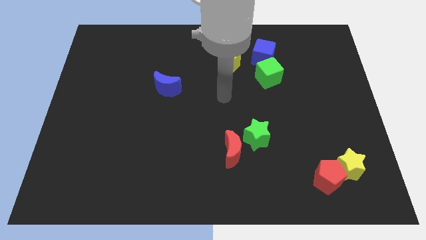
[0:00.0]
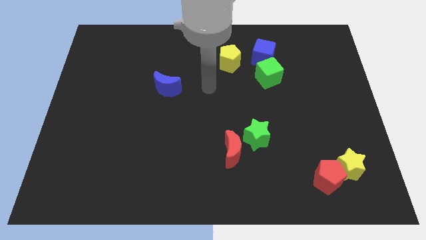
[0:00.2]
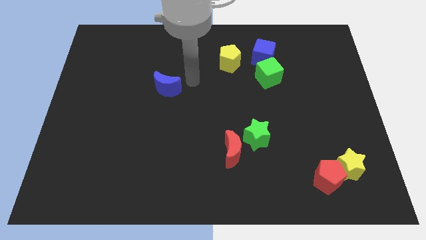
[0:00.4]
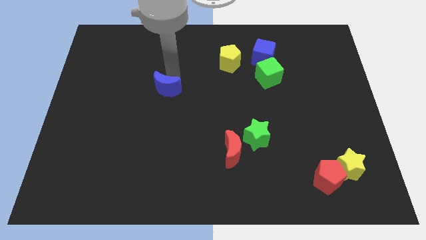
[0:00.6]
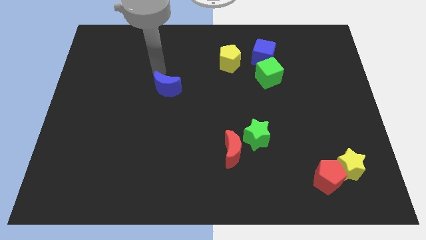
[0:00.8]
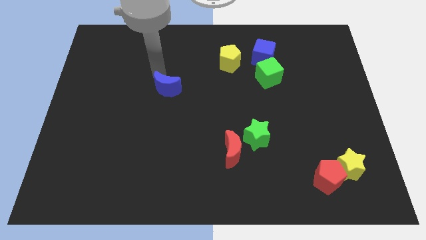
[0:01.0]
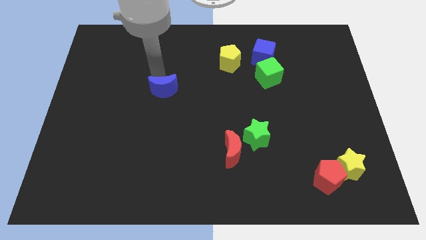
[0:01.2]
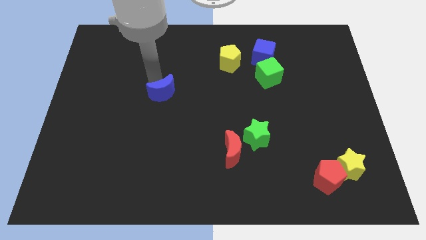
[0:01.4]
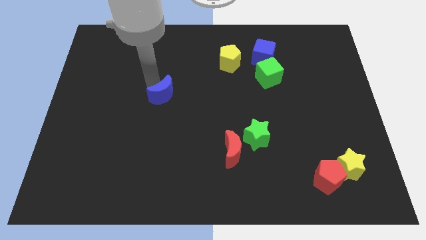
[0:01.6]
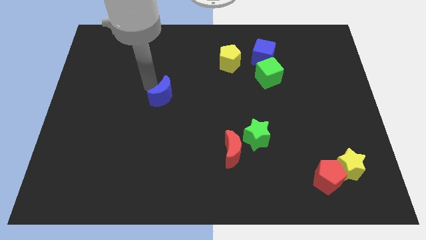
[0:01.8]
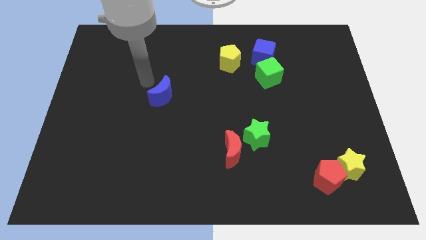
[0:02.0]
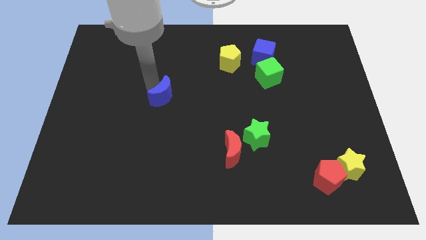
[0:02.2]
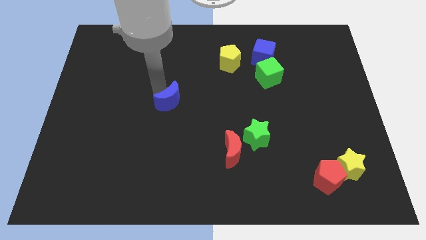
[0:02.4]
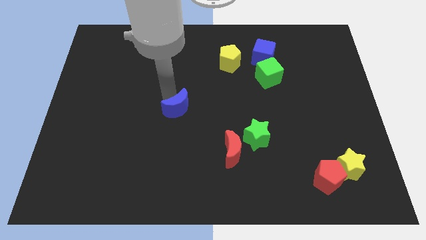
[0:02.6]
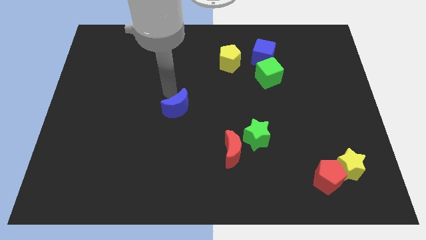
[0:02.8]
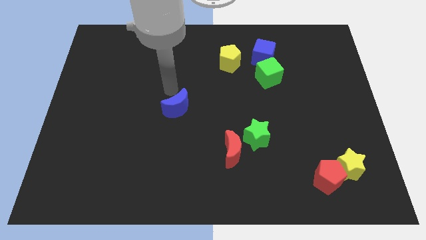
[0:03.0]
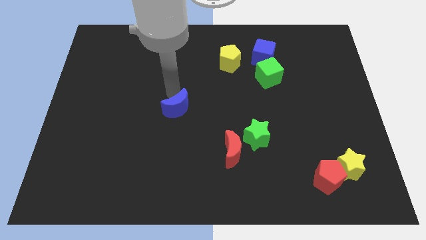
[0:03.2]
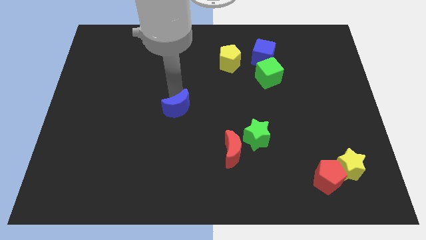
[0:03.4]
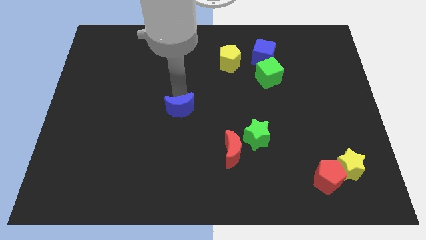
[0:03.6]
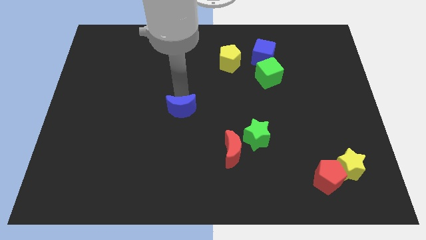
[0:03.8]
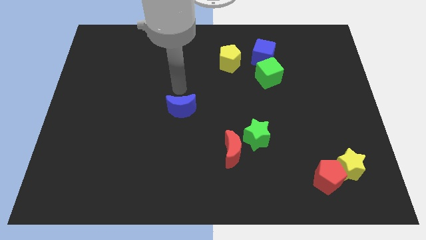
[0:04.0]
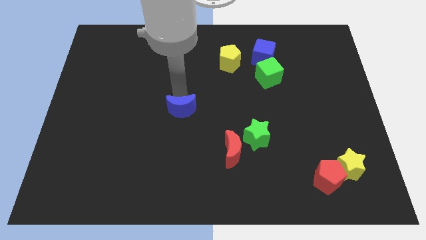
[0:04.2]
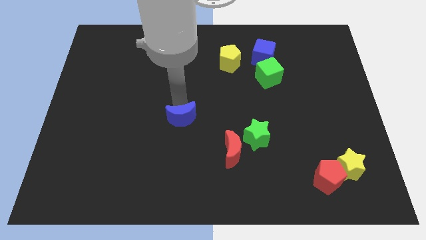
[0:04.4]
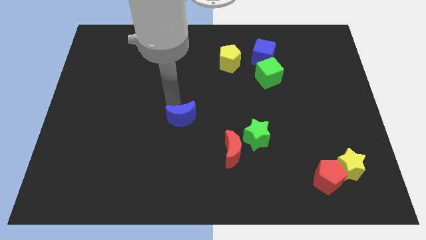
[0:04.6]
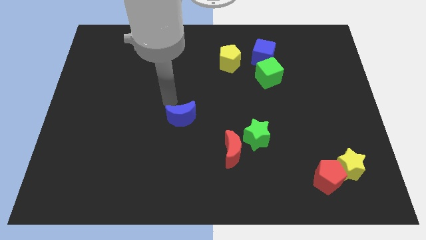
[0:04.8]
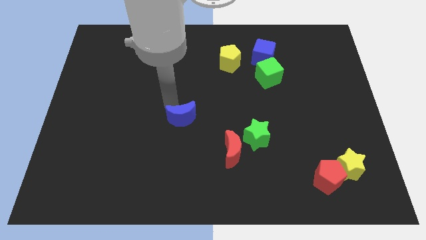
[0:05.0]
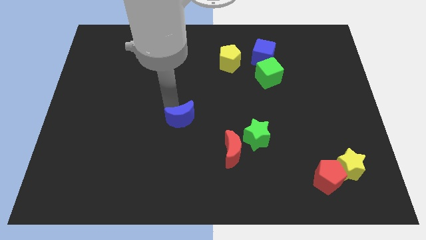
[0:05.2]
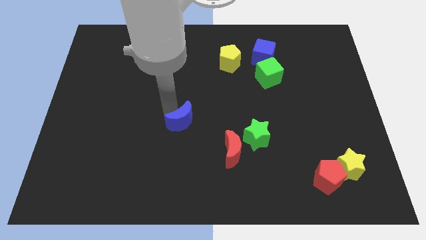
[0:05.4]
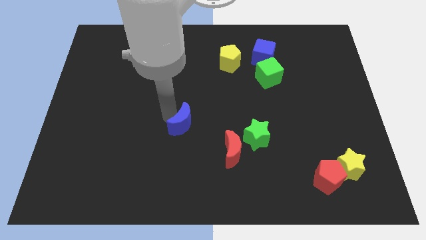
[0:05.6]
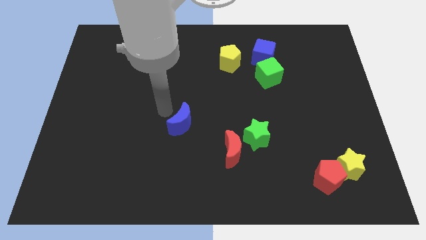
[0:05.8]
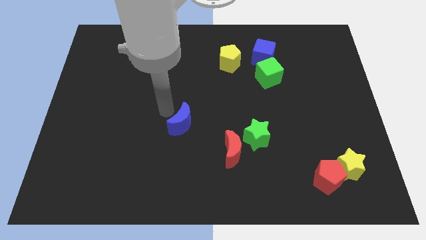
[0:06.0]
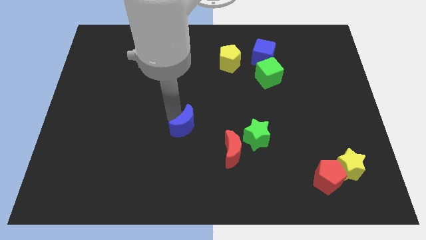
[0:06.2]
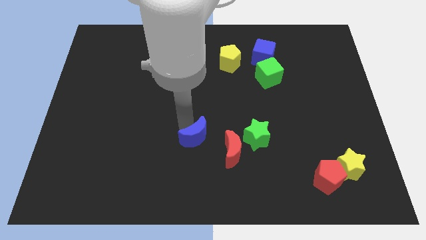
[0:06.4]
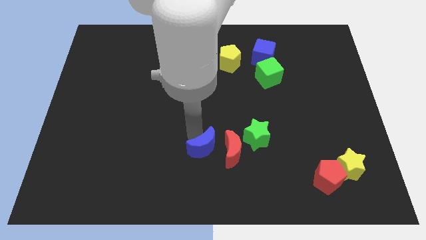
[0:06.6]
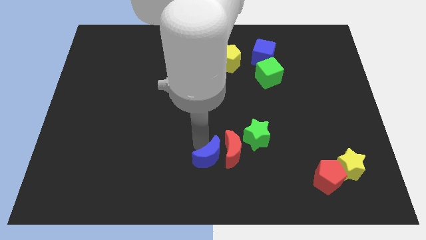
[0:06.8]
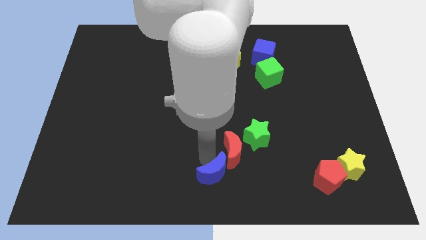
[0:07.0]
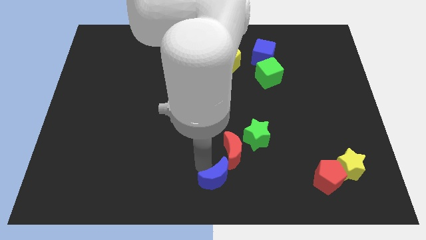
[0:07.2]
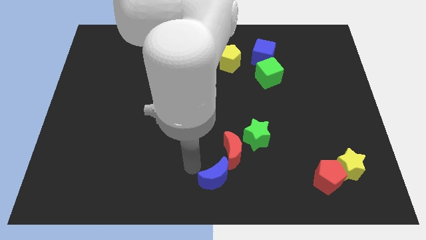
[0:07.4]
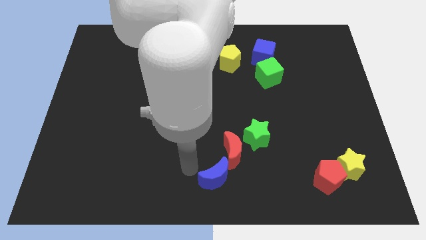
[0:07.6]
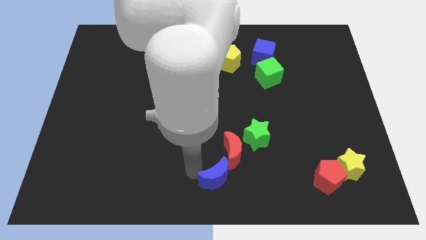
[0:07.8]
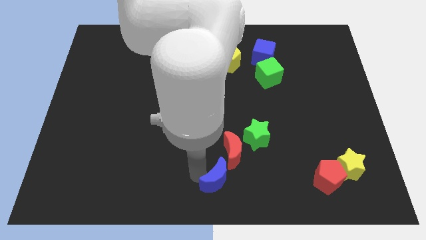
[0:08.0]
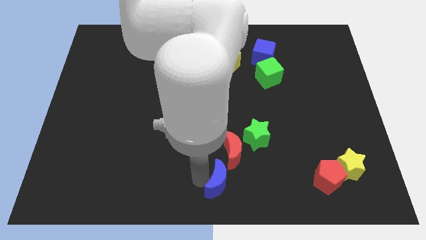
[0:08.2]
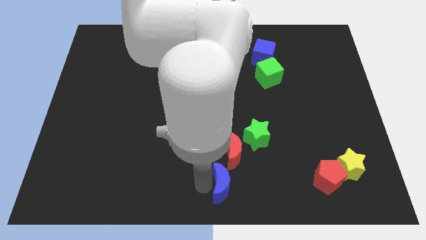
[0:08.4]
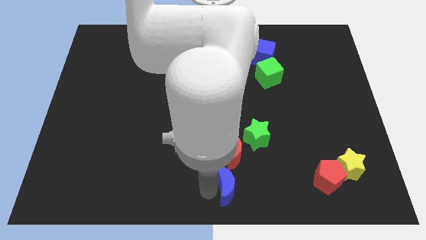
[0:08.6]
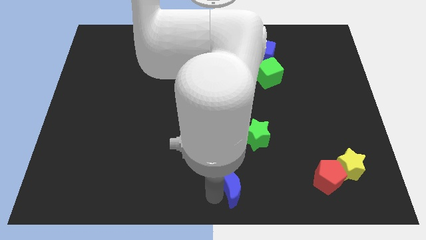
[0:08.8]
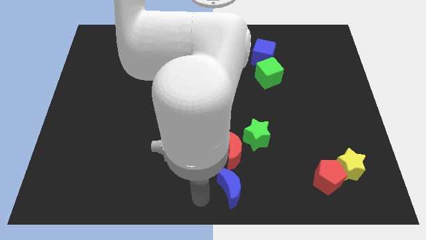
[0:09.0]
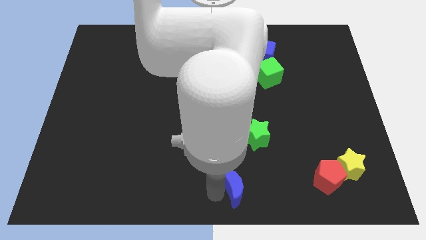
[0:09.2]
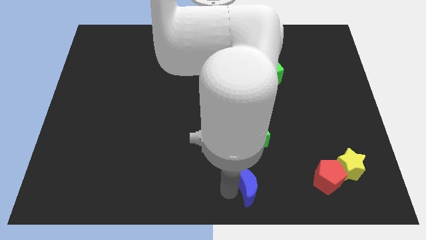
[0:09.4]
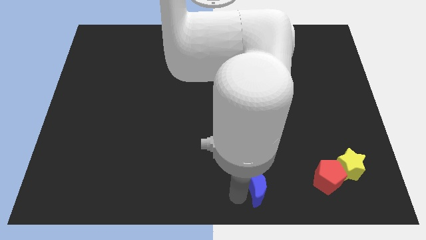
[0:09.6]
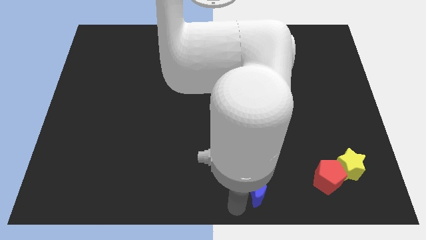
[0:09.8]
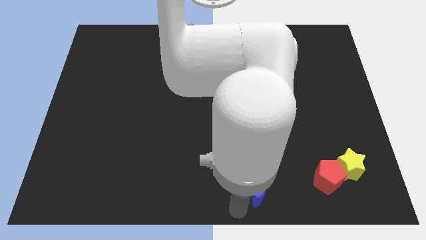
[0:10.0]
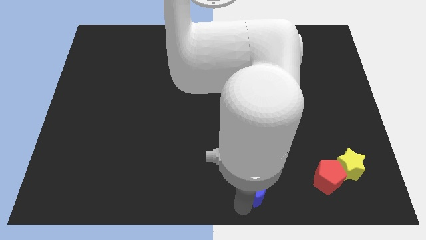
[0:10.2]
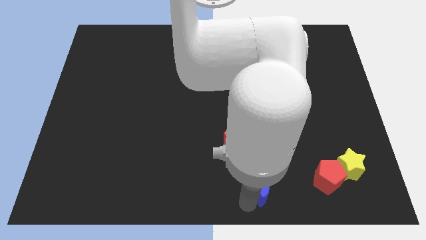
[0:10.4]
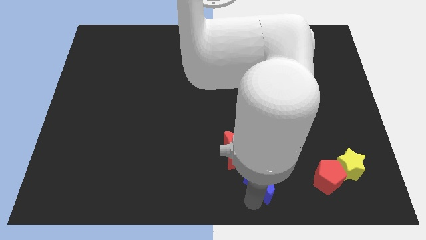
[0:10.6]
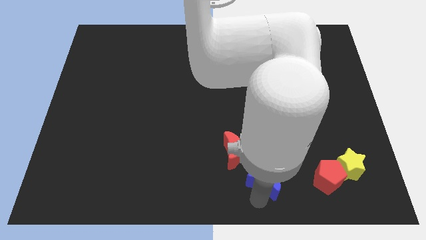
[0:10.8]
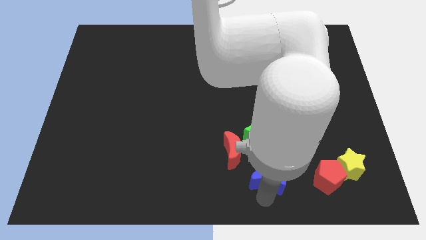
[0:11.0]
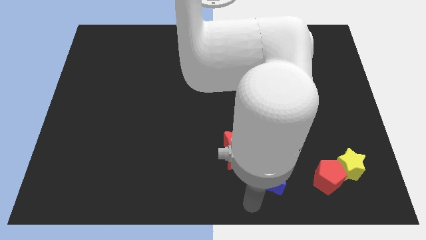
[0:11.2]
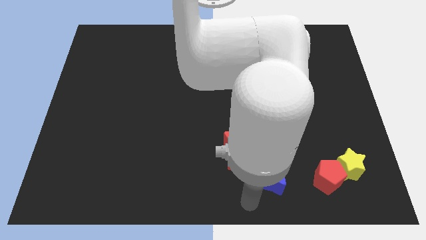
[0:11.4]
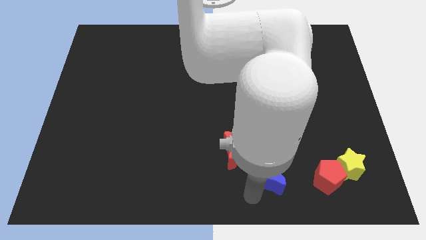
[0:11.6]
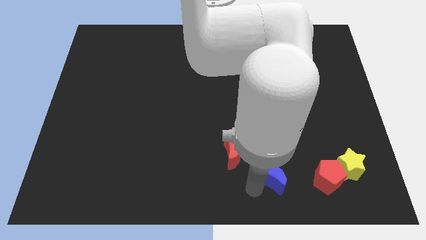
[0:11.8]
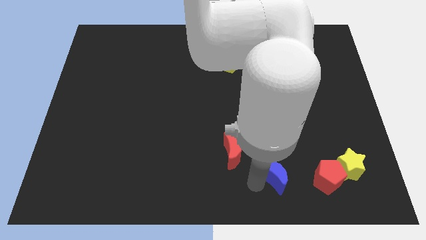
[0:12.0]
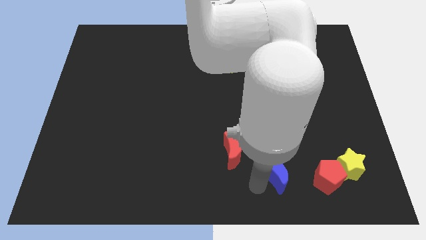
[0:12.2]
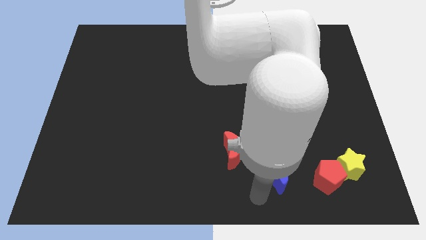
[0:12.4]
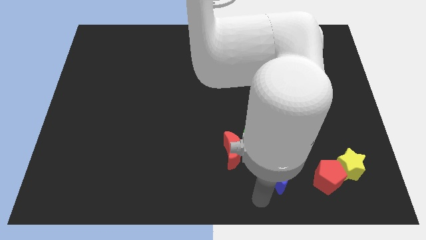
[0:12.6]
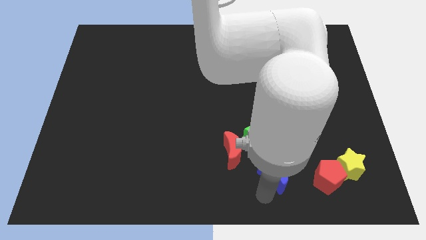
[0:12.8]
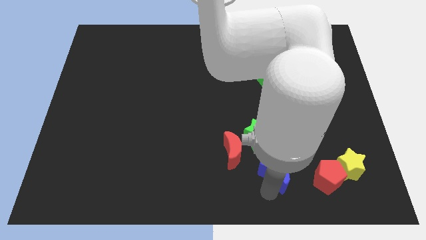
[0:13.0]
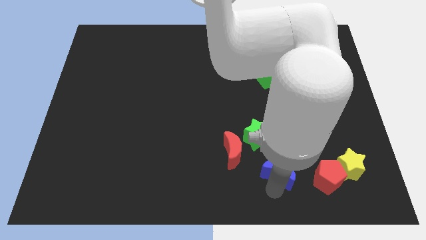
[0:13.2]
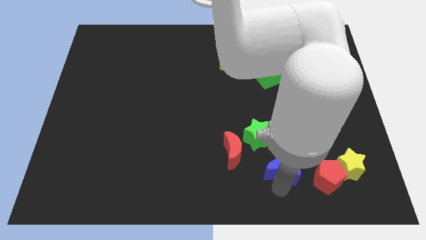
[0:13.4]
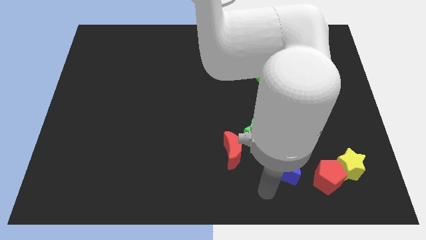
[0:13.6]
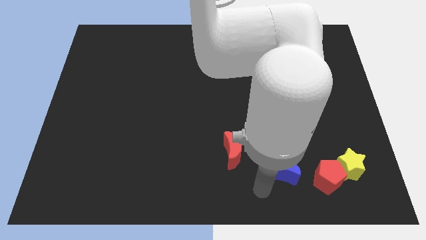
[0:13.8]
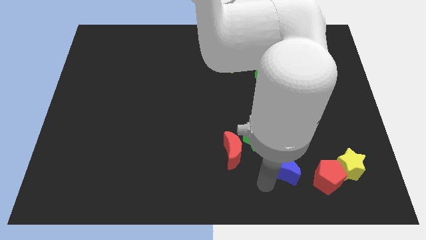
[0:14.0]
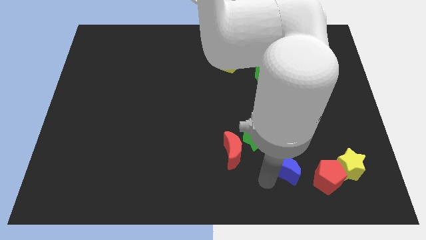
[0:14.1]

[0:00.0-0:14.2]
slide the blue moon diagonally up and to the left of the red pentagon

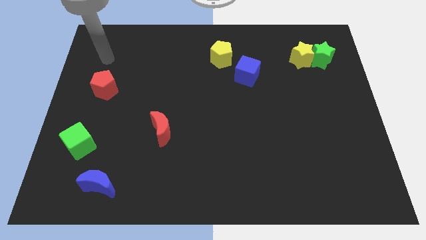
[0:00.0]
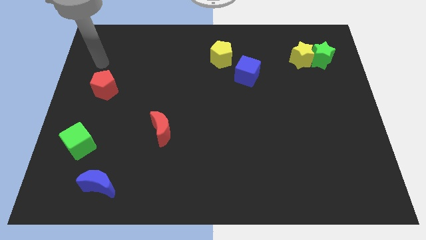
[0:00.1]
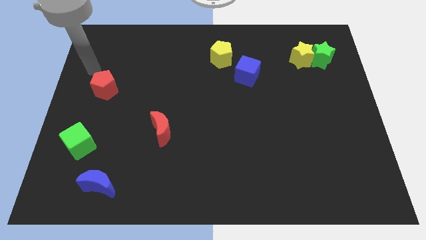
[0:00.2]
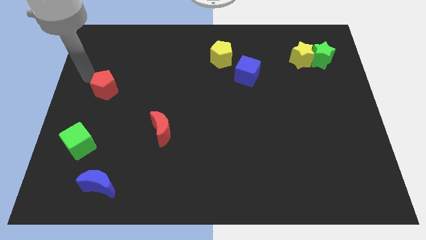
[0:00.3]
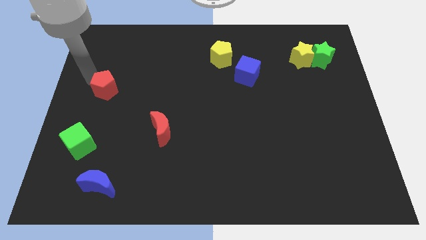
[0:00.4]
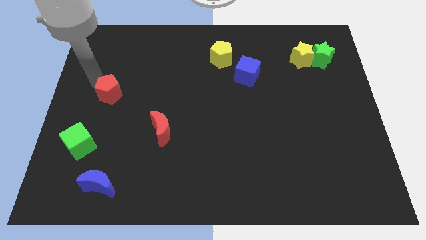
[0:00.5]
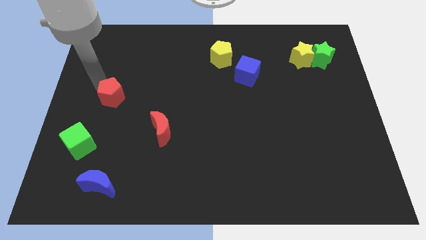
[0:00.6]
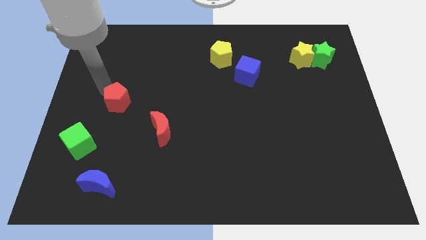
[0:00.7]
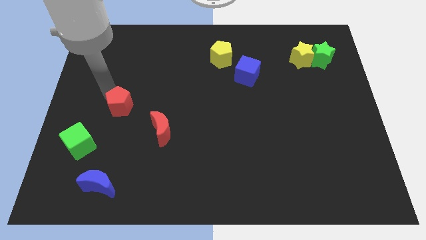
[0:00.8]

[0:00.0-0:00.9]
slide the red pentagon diagonally up and to the left of the red moon
